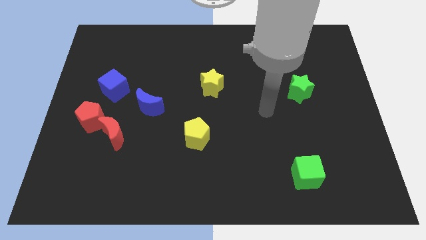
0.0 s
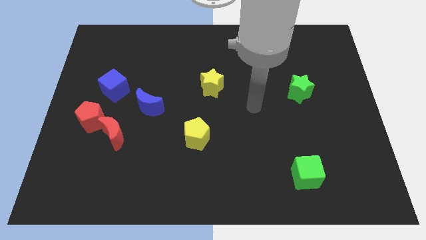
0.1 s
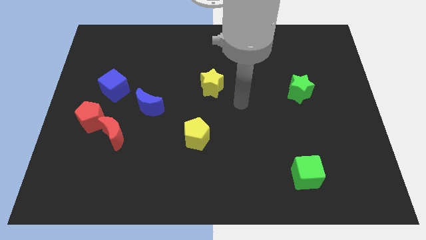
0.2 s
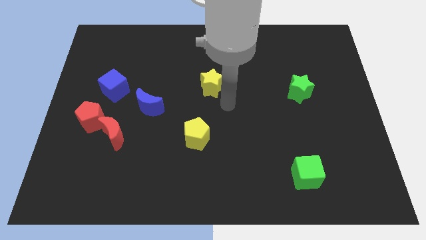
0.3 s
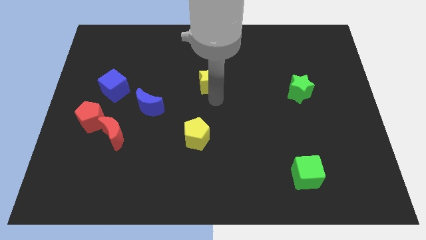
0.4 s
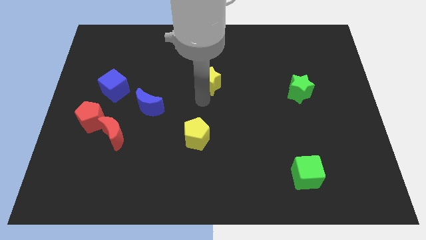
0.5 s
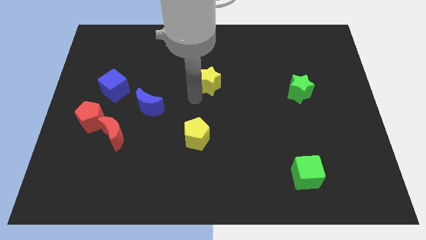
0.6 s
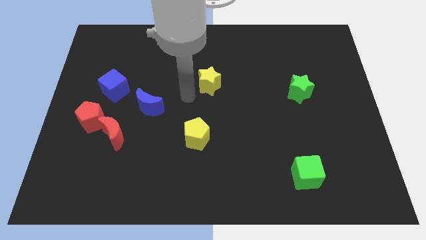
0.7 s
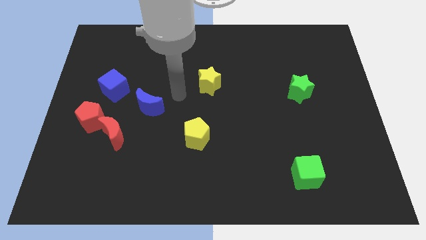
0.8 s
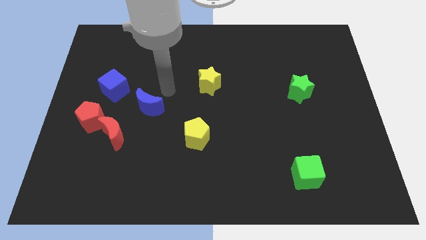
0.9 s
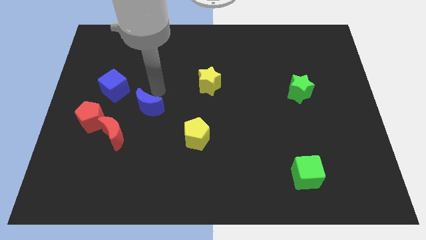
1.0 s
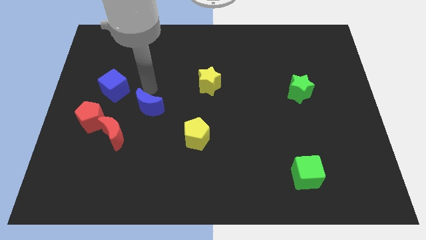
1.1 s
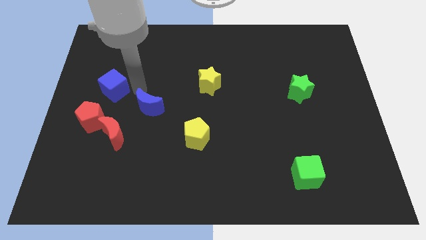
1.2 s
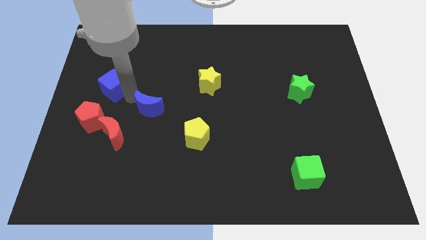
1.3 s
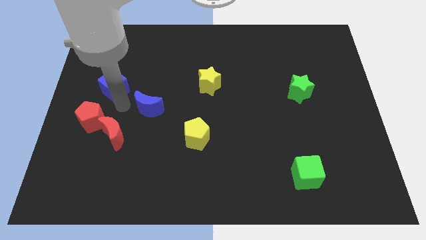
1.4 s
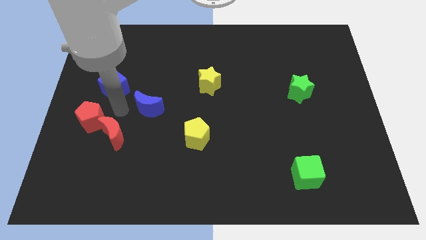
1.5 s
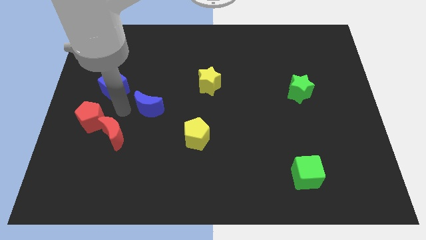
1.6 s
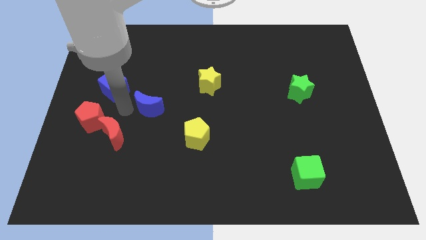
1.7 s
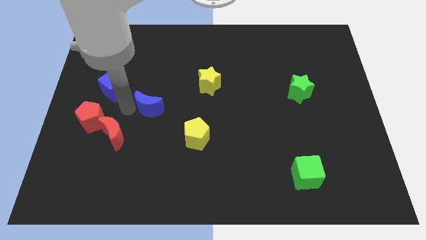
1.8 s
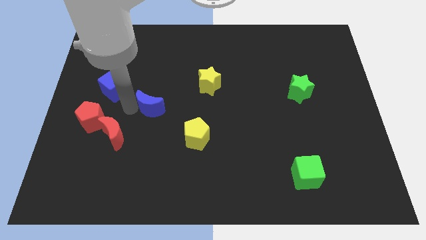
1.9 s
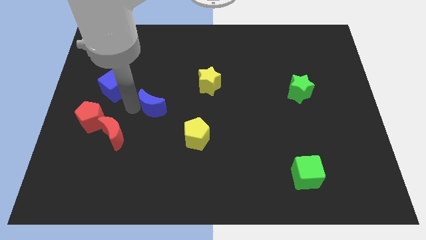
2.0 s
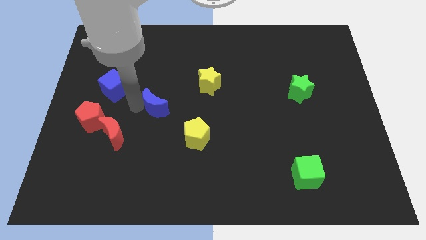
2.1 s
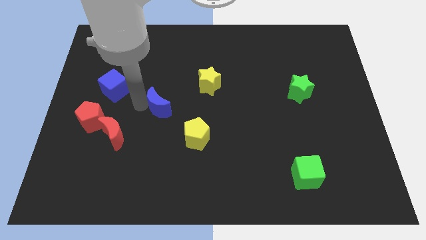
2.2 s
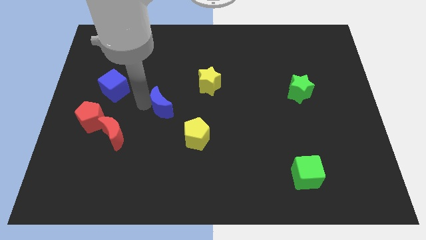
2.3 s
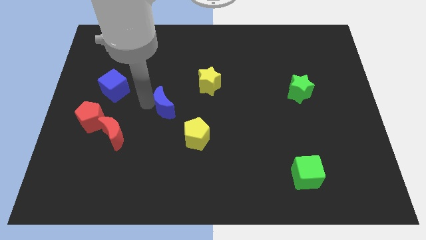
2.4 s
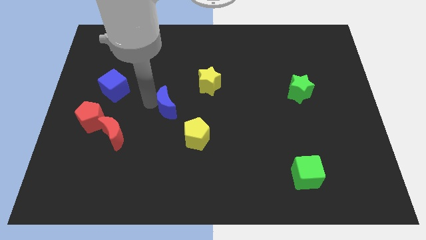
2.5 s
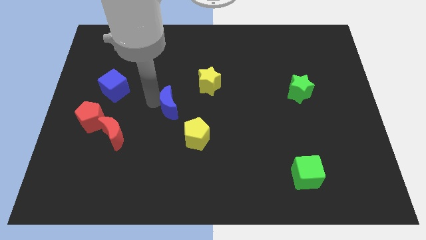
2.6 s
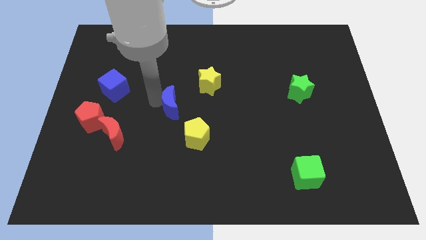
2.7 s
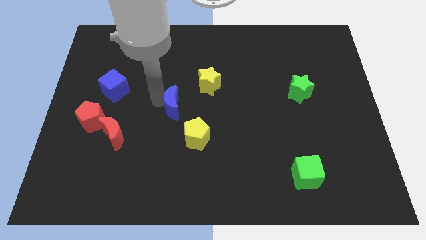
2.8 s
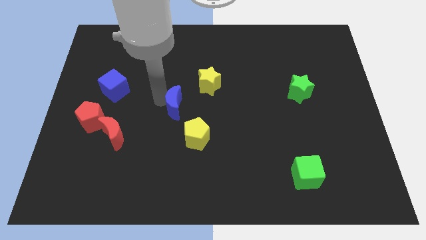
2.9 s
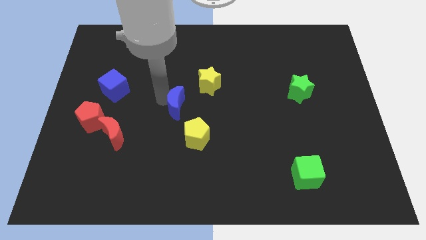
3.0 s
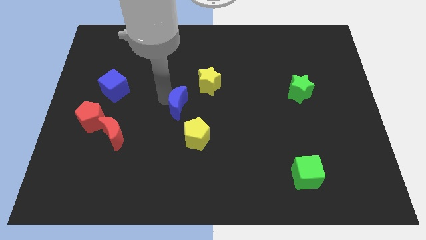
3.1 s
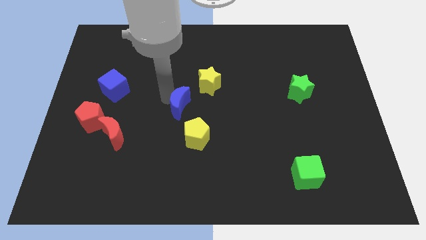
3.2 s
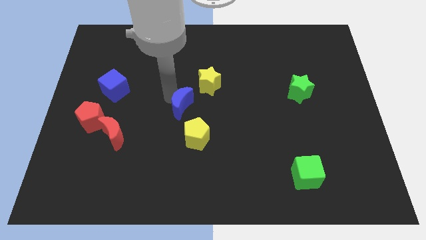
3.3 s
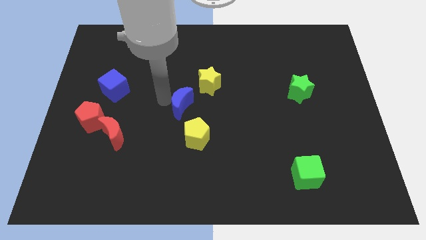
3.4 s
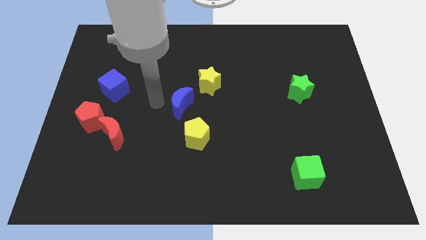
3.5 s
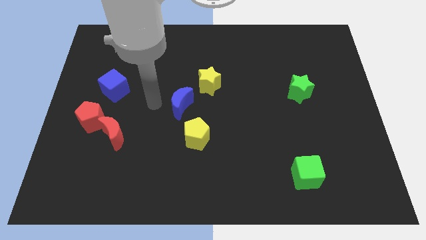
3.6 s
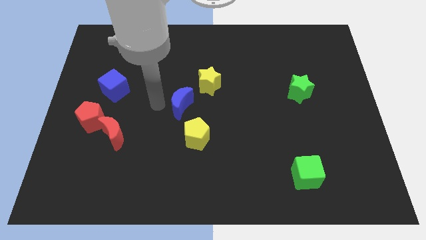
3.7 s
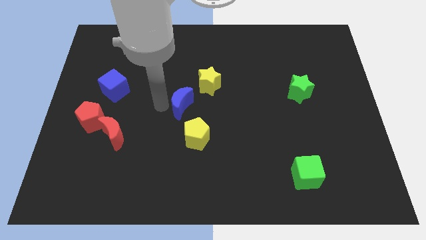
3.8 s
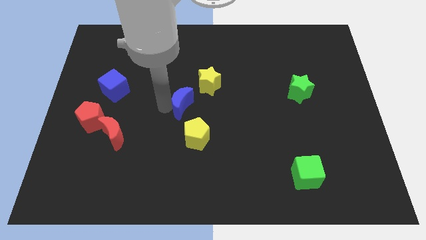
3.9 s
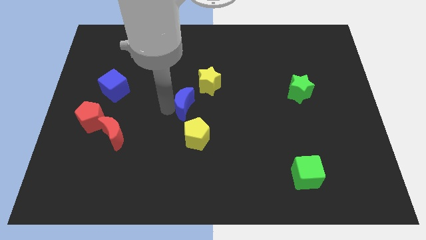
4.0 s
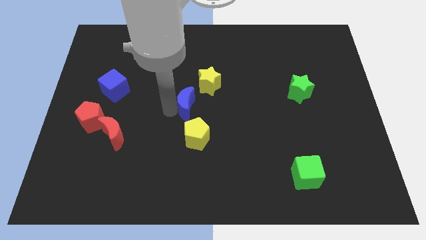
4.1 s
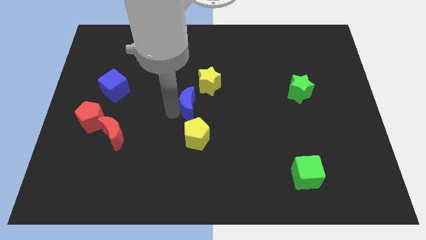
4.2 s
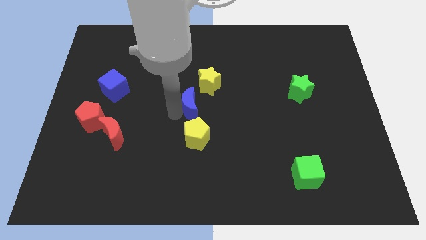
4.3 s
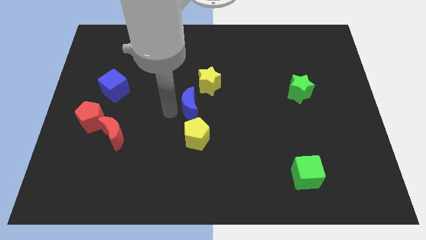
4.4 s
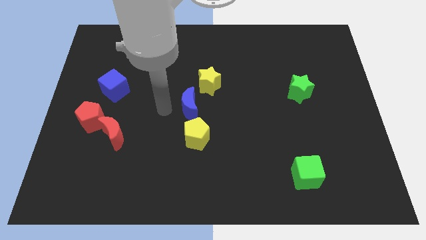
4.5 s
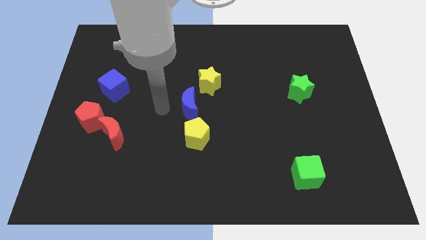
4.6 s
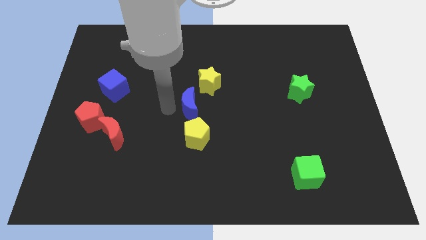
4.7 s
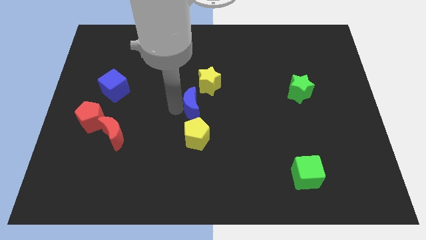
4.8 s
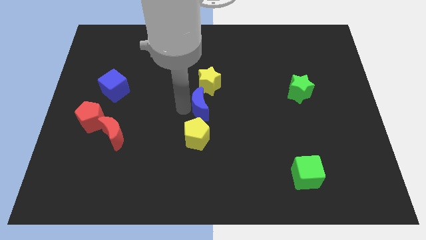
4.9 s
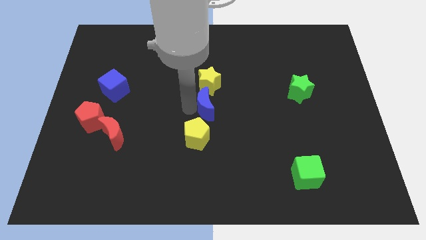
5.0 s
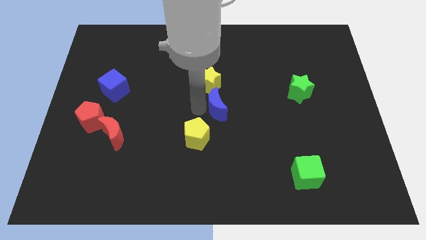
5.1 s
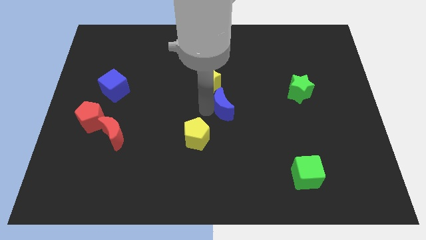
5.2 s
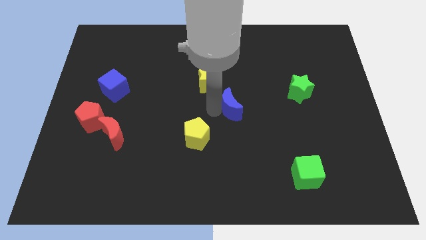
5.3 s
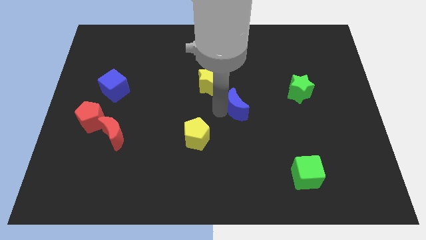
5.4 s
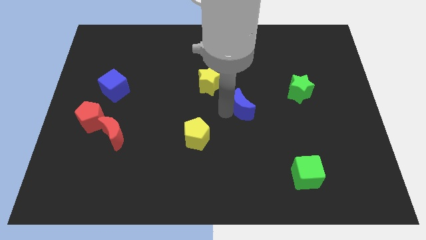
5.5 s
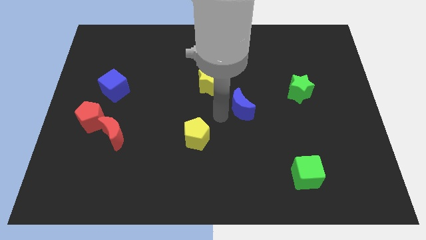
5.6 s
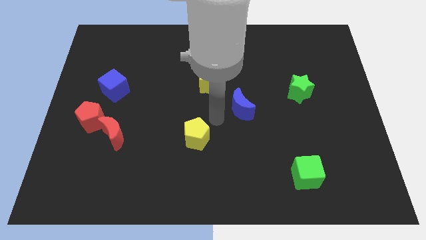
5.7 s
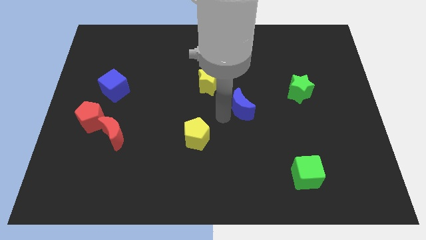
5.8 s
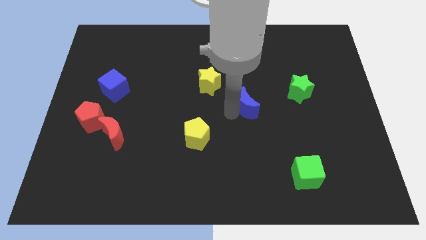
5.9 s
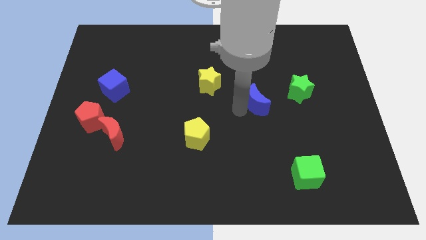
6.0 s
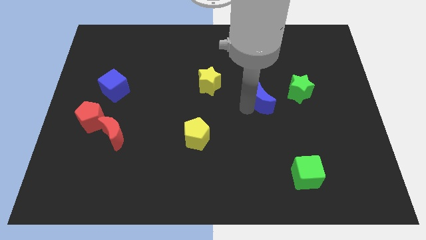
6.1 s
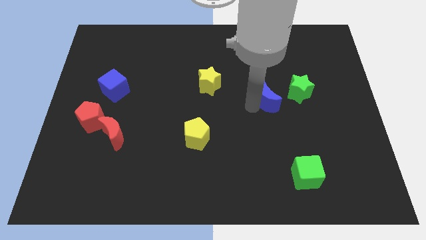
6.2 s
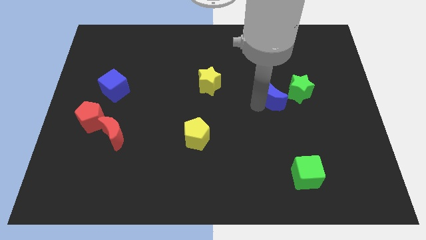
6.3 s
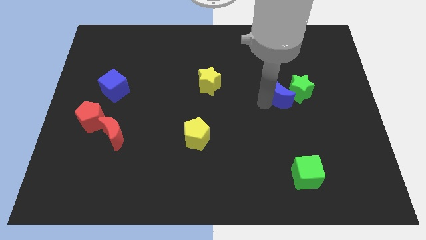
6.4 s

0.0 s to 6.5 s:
put the blue moon towards the green star
